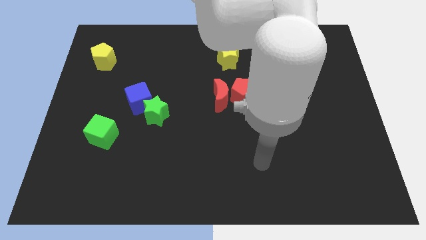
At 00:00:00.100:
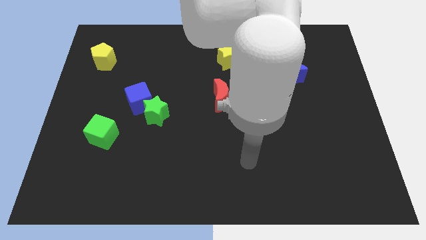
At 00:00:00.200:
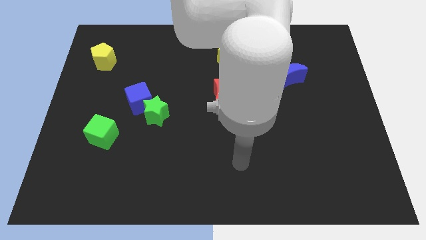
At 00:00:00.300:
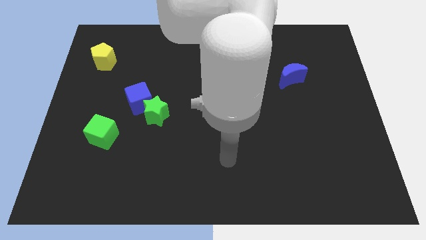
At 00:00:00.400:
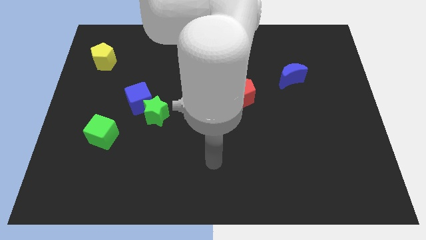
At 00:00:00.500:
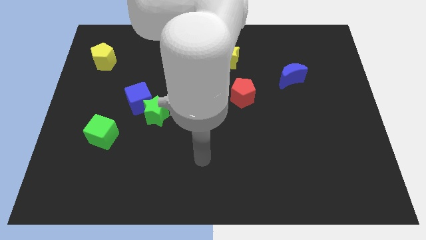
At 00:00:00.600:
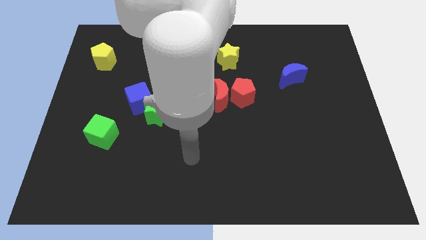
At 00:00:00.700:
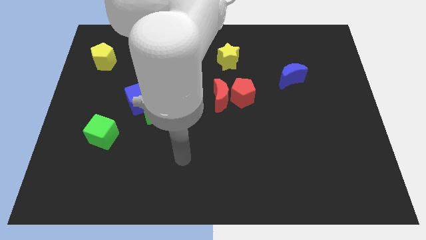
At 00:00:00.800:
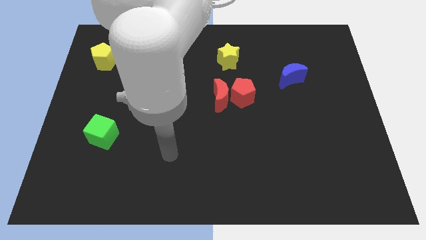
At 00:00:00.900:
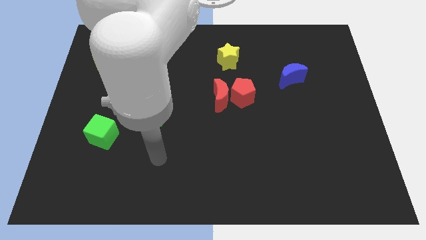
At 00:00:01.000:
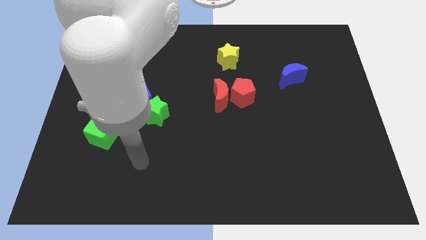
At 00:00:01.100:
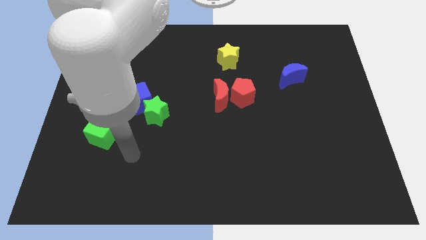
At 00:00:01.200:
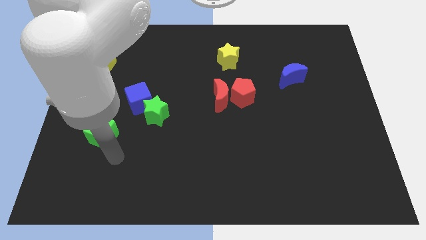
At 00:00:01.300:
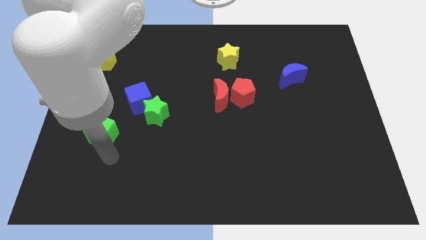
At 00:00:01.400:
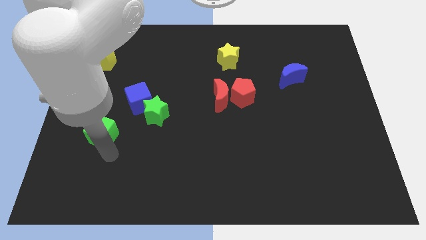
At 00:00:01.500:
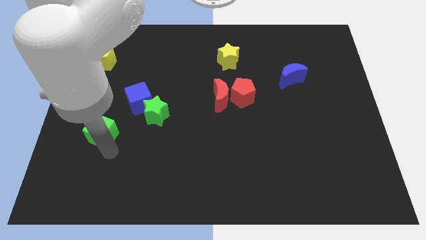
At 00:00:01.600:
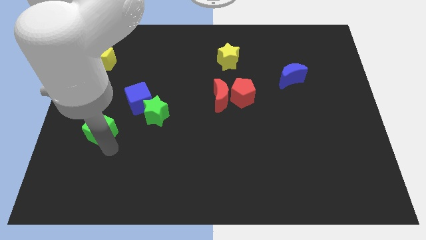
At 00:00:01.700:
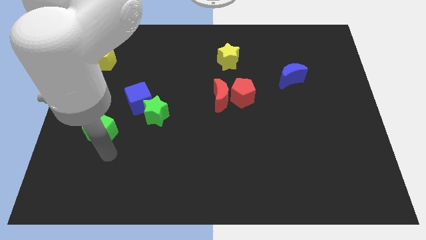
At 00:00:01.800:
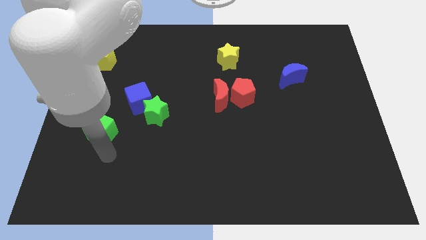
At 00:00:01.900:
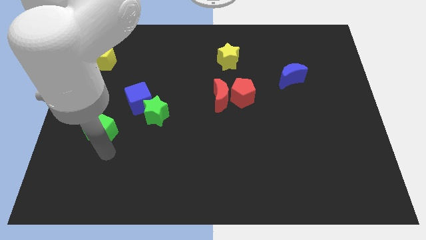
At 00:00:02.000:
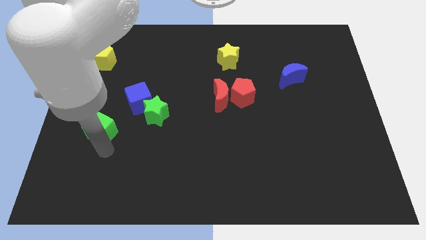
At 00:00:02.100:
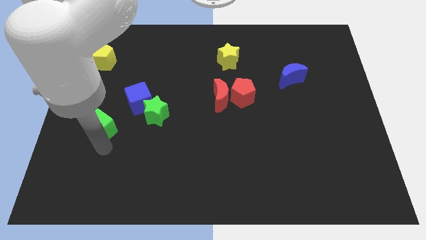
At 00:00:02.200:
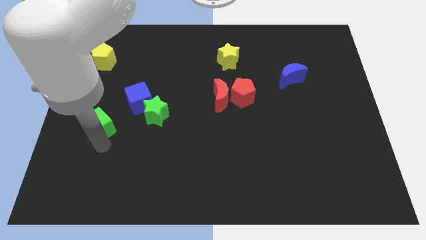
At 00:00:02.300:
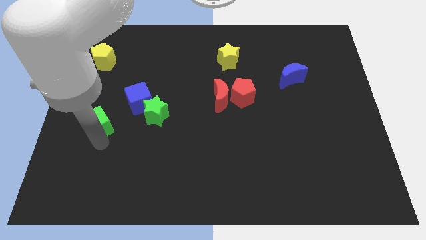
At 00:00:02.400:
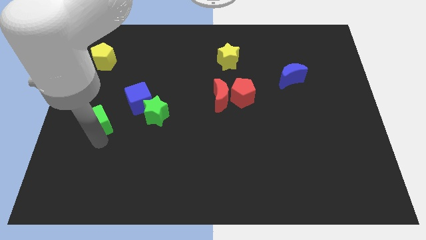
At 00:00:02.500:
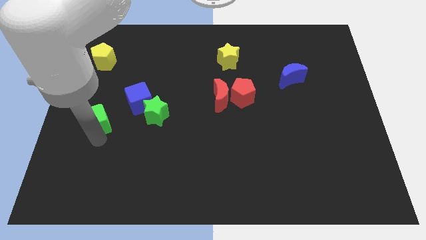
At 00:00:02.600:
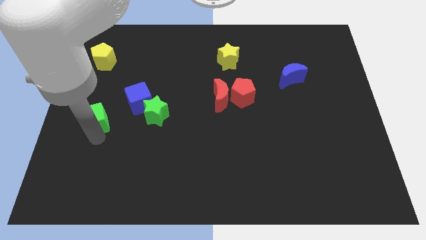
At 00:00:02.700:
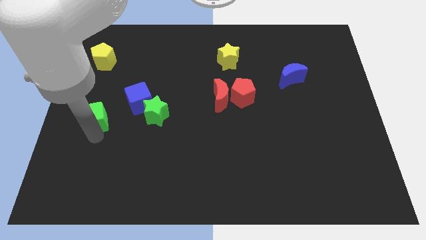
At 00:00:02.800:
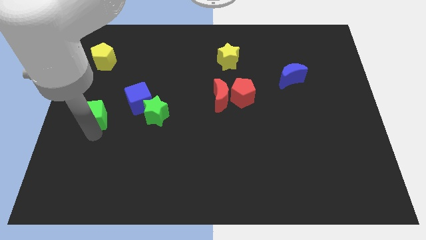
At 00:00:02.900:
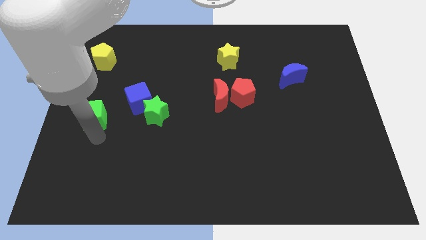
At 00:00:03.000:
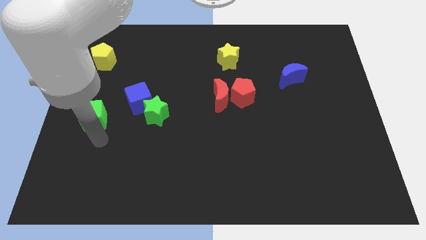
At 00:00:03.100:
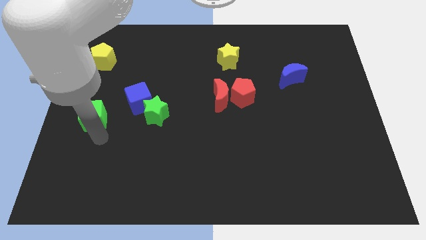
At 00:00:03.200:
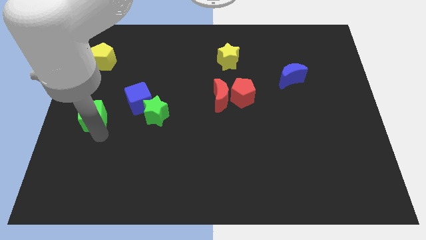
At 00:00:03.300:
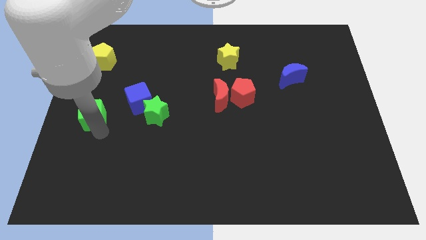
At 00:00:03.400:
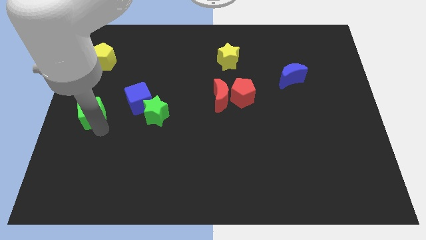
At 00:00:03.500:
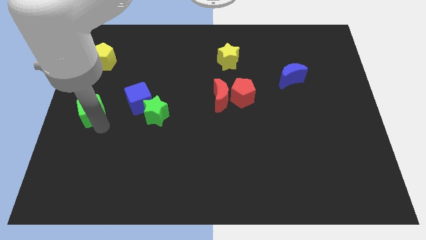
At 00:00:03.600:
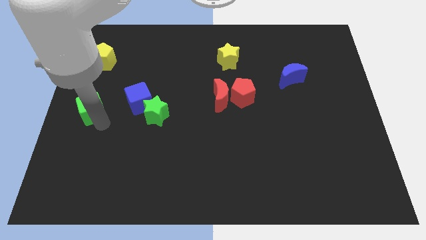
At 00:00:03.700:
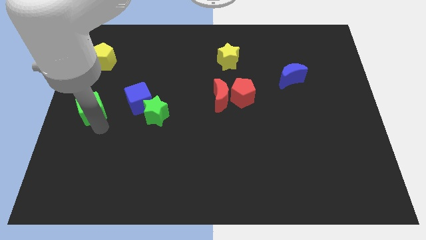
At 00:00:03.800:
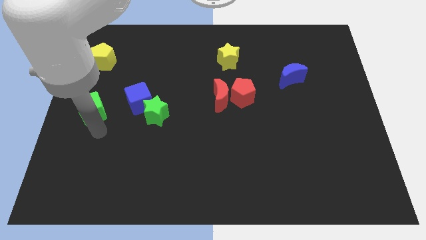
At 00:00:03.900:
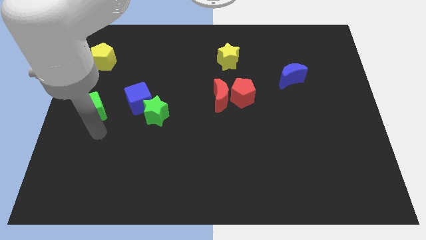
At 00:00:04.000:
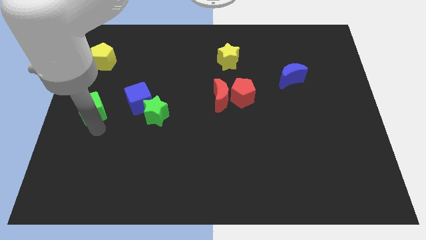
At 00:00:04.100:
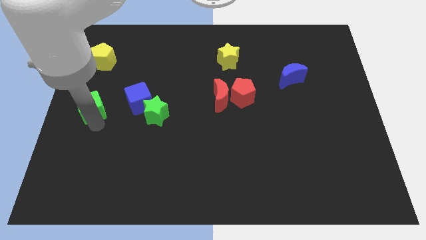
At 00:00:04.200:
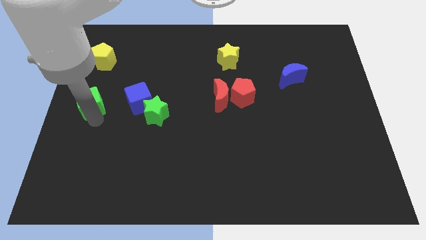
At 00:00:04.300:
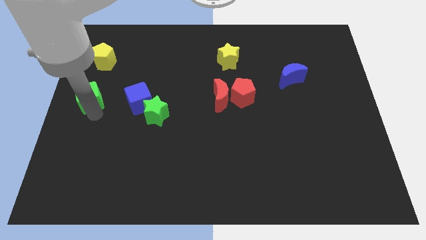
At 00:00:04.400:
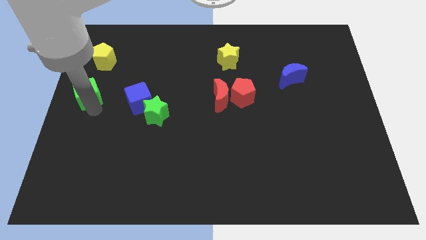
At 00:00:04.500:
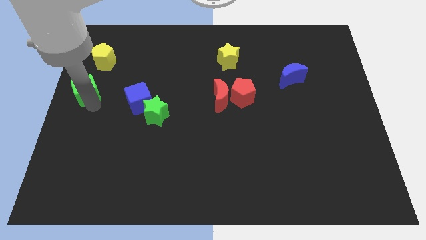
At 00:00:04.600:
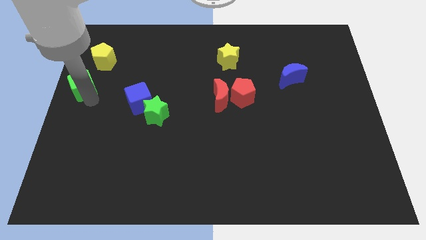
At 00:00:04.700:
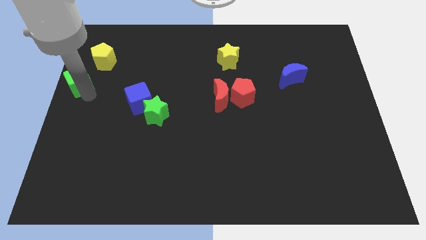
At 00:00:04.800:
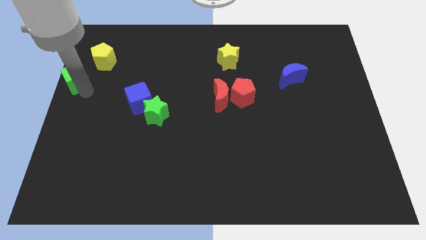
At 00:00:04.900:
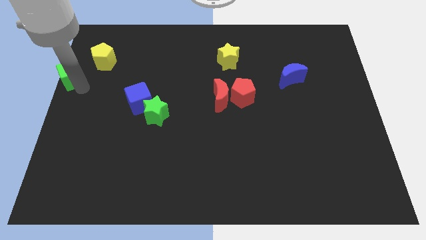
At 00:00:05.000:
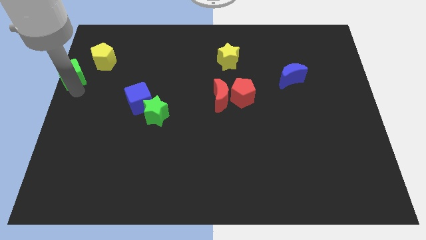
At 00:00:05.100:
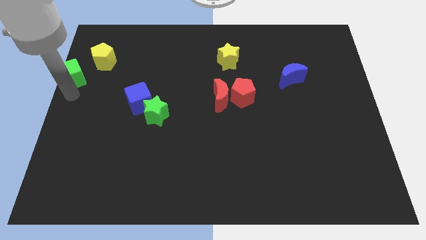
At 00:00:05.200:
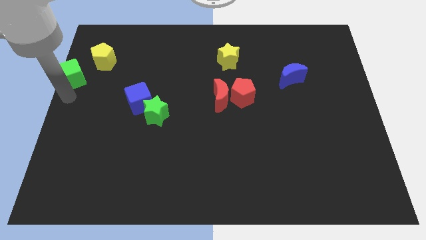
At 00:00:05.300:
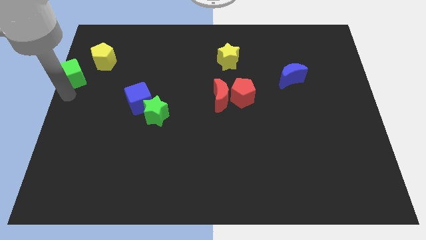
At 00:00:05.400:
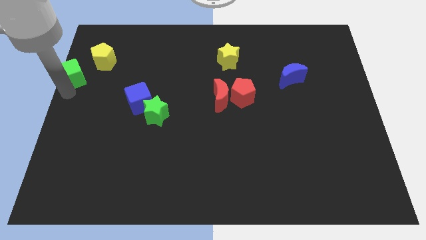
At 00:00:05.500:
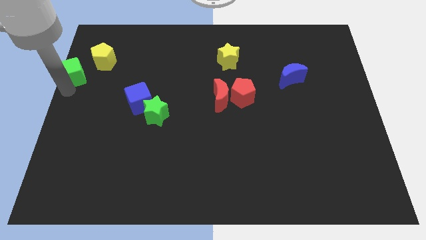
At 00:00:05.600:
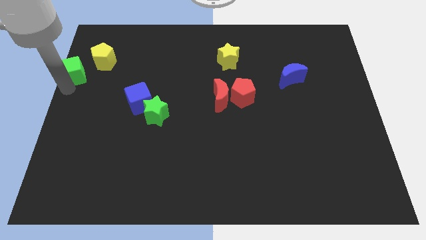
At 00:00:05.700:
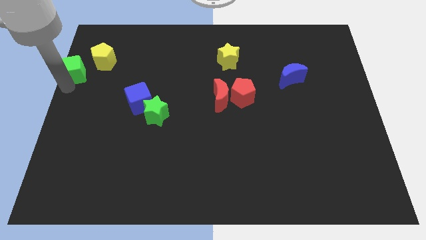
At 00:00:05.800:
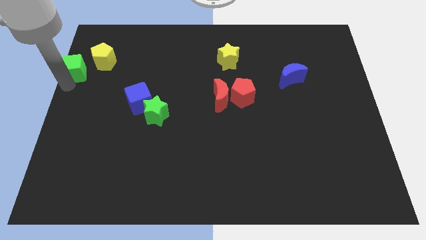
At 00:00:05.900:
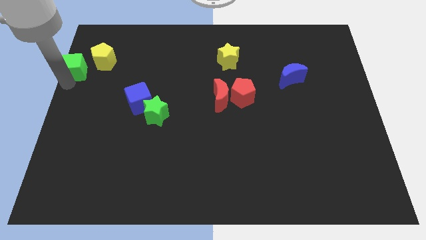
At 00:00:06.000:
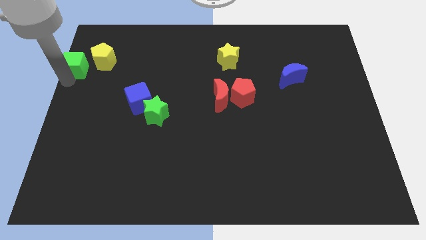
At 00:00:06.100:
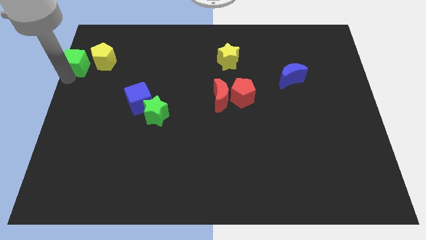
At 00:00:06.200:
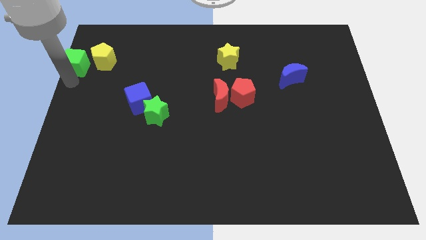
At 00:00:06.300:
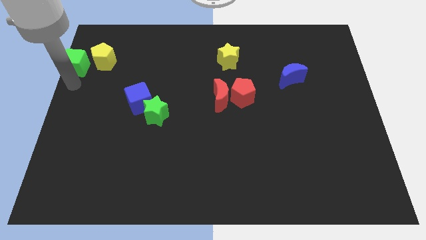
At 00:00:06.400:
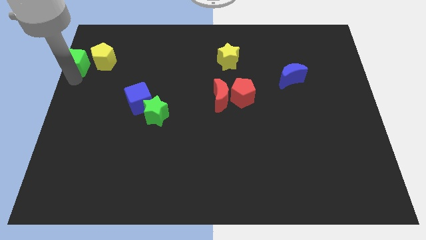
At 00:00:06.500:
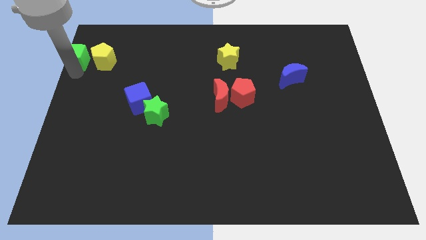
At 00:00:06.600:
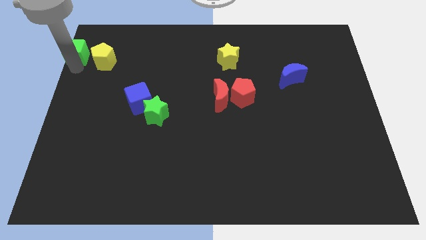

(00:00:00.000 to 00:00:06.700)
put the green cube to the upper left corner

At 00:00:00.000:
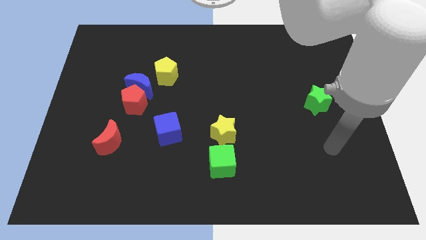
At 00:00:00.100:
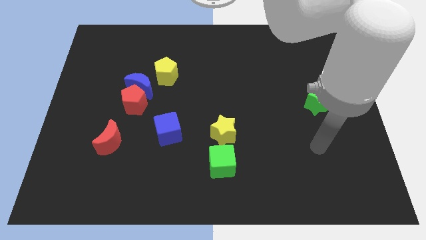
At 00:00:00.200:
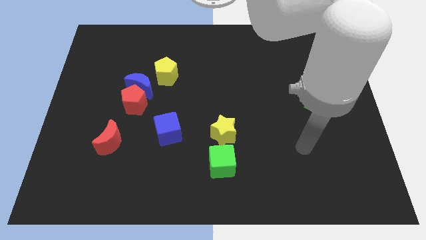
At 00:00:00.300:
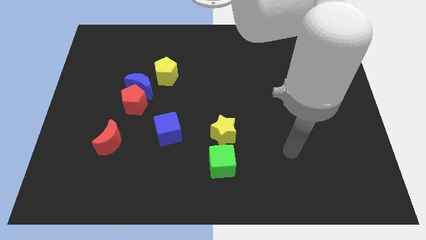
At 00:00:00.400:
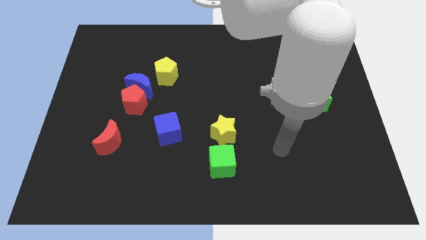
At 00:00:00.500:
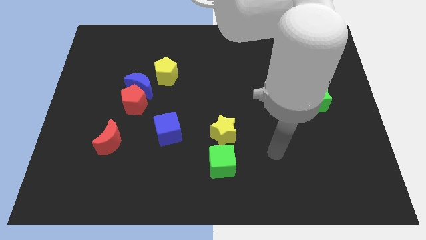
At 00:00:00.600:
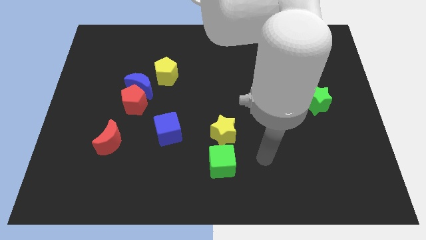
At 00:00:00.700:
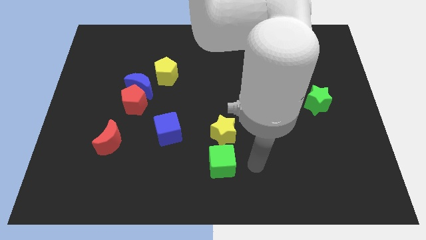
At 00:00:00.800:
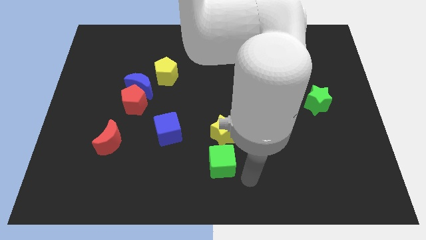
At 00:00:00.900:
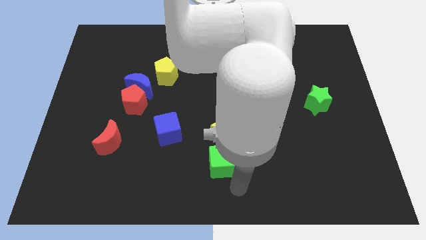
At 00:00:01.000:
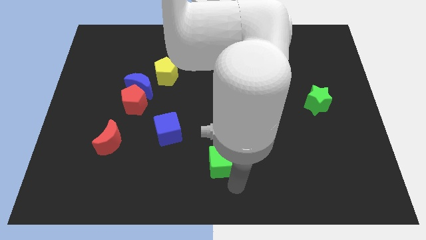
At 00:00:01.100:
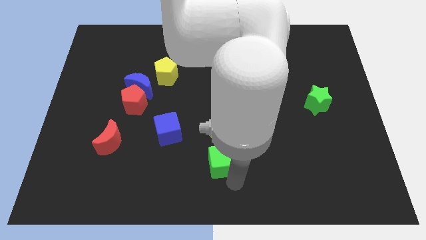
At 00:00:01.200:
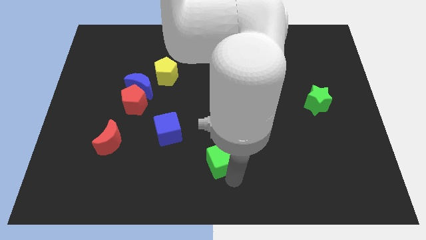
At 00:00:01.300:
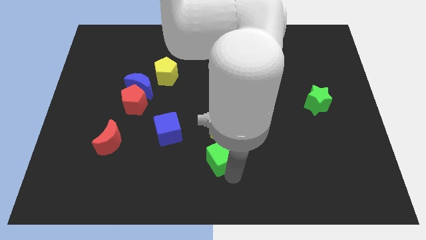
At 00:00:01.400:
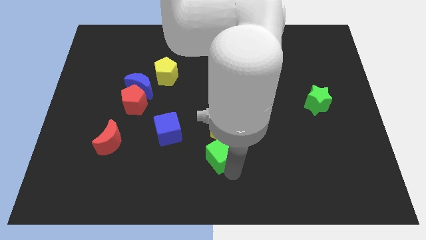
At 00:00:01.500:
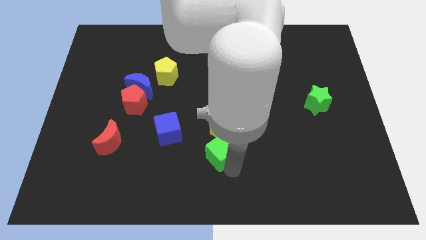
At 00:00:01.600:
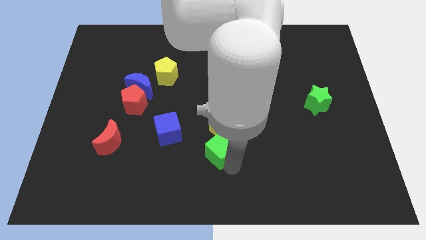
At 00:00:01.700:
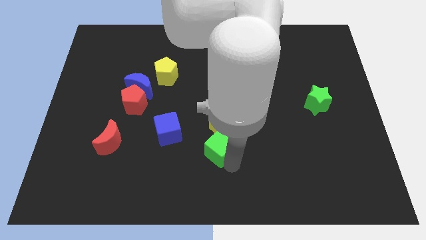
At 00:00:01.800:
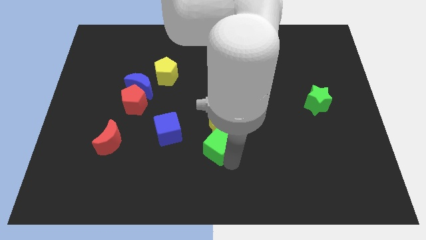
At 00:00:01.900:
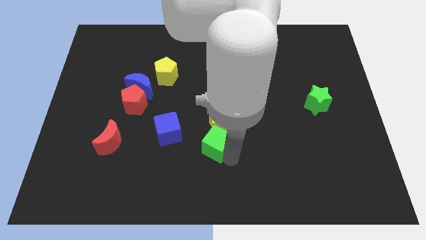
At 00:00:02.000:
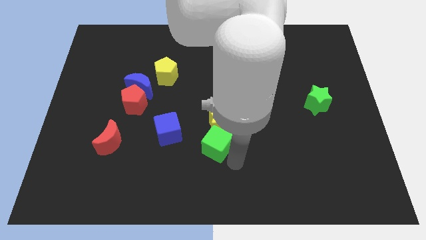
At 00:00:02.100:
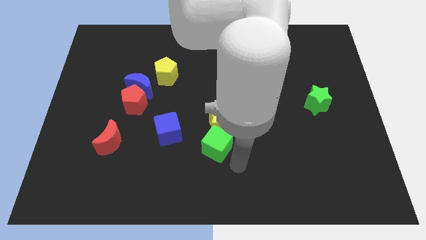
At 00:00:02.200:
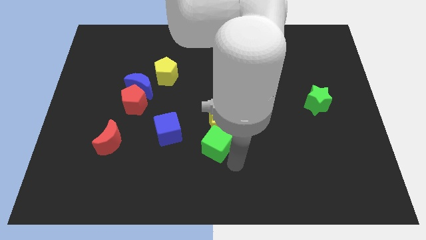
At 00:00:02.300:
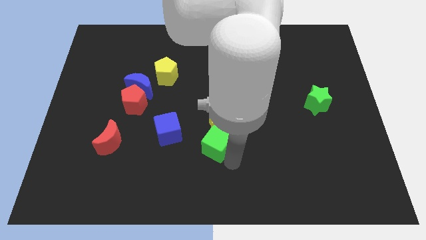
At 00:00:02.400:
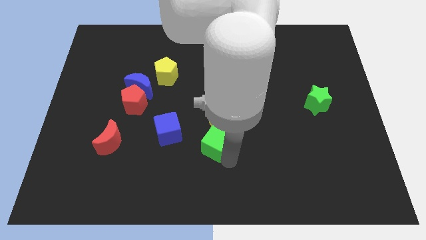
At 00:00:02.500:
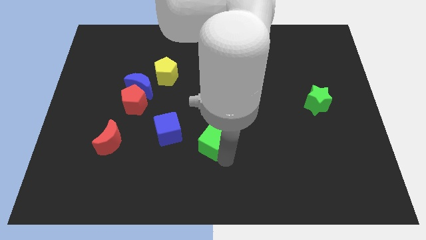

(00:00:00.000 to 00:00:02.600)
move the green cube to the middle
